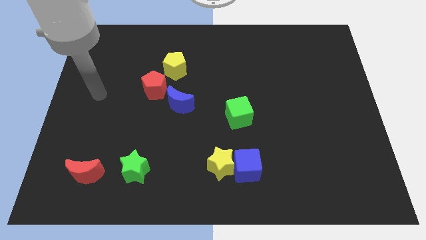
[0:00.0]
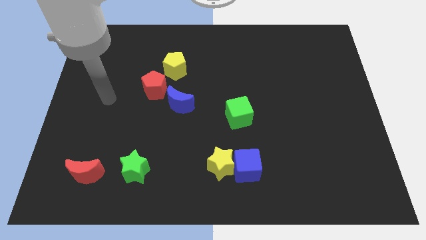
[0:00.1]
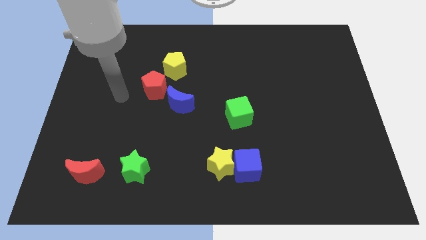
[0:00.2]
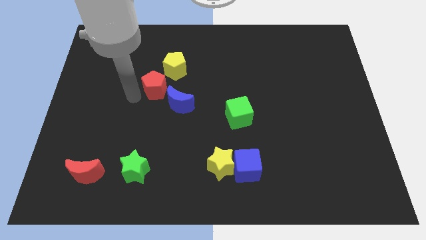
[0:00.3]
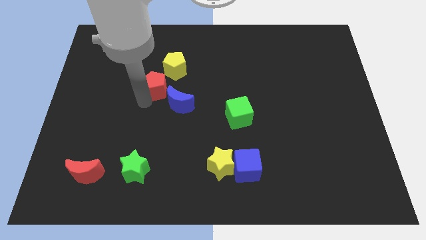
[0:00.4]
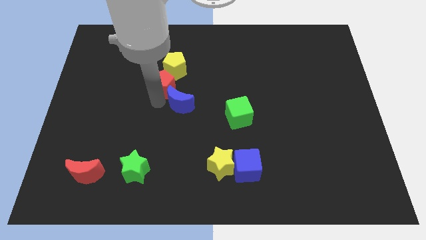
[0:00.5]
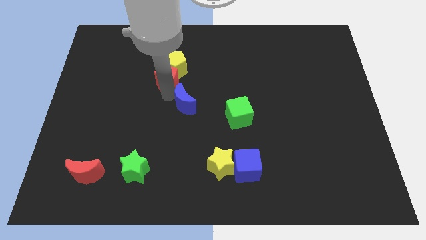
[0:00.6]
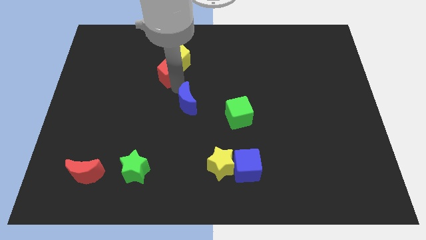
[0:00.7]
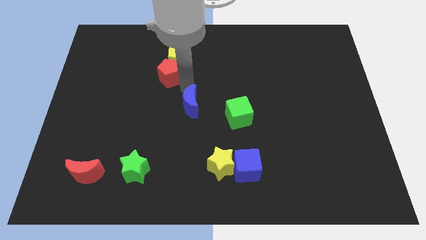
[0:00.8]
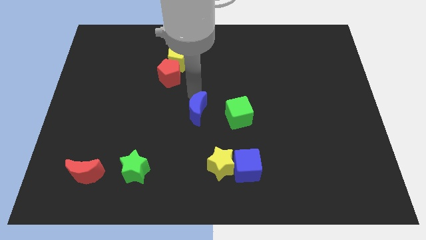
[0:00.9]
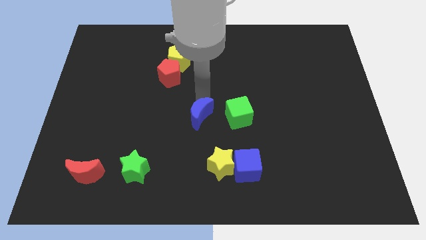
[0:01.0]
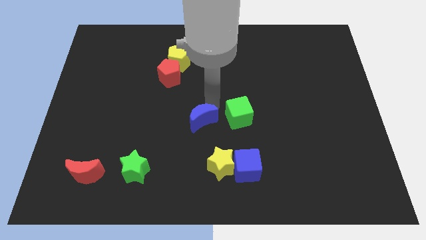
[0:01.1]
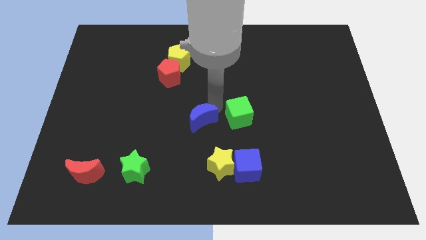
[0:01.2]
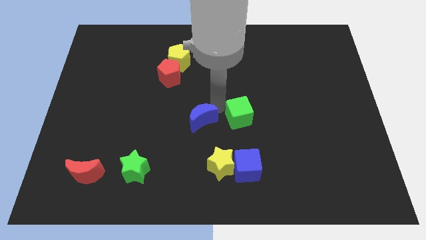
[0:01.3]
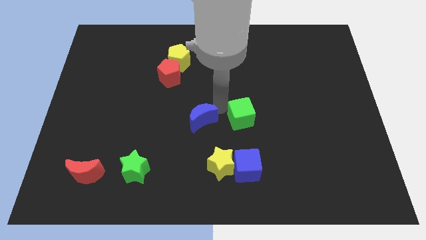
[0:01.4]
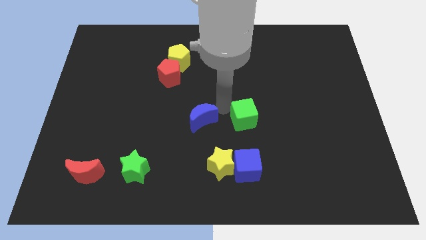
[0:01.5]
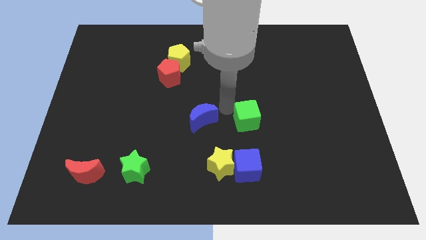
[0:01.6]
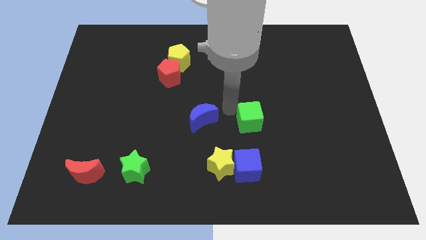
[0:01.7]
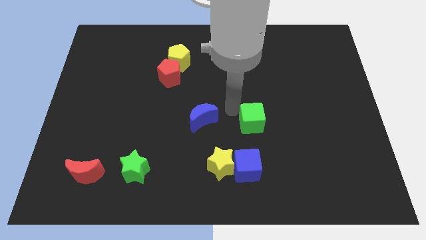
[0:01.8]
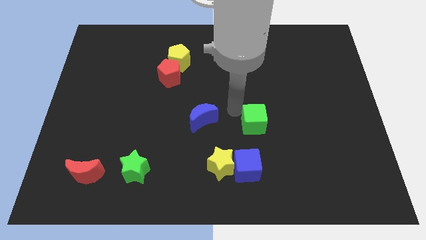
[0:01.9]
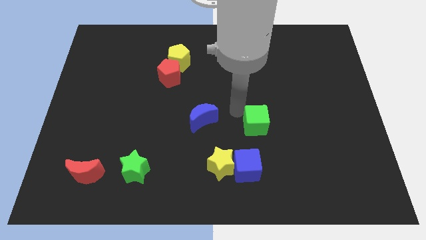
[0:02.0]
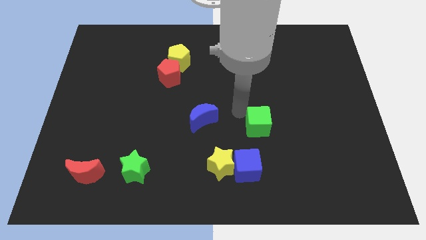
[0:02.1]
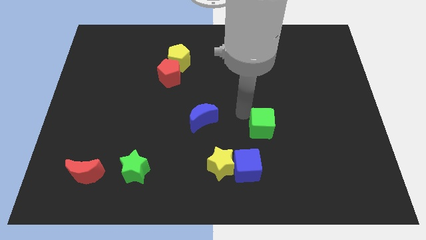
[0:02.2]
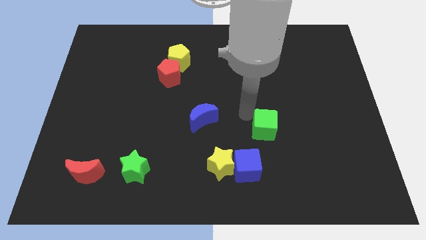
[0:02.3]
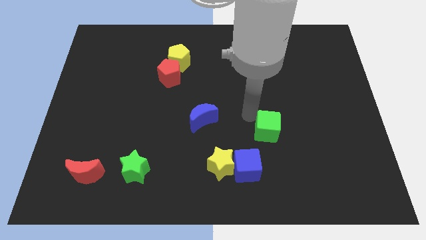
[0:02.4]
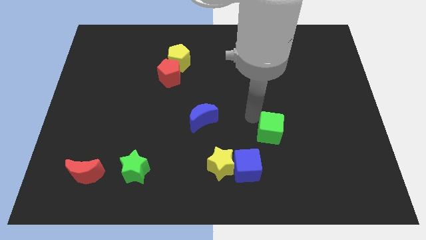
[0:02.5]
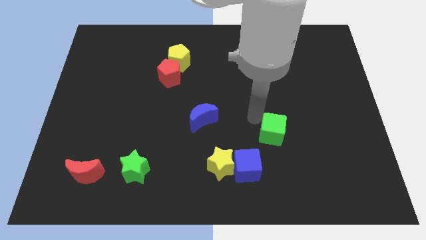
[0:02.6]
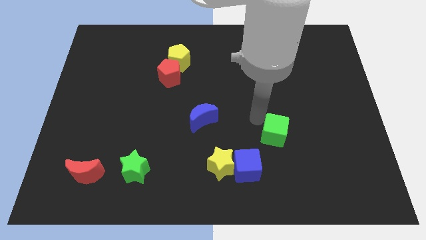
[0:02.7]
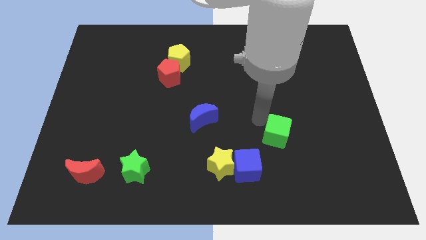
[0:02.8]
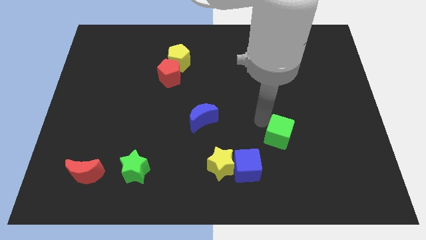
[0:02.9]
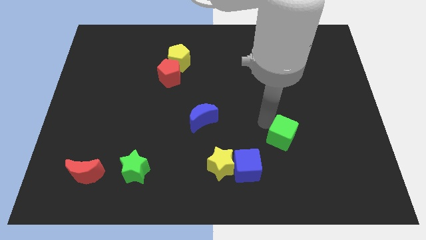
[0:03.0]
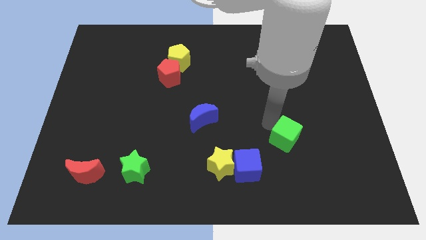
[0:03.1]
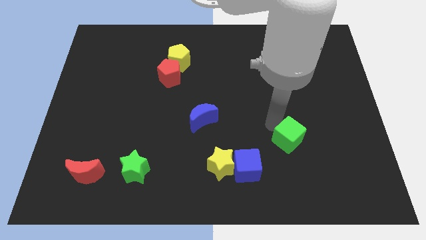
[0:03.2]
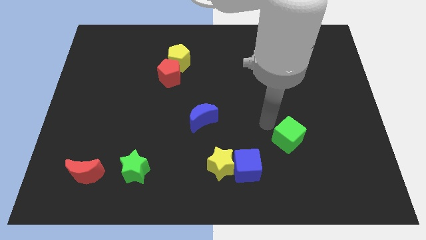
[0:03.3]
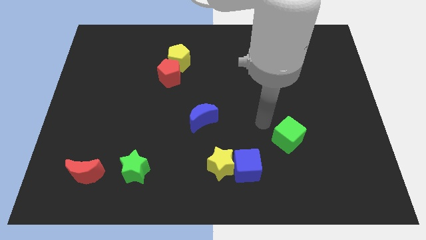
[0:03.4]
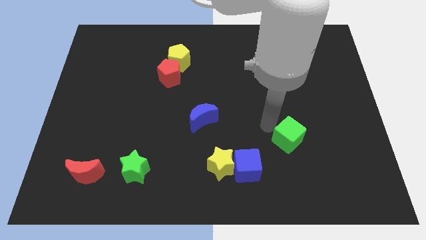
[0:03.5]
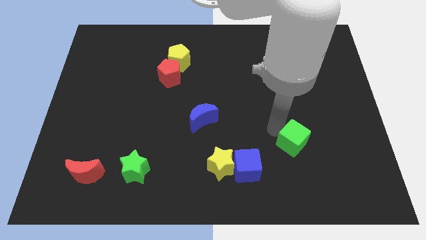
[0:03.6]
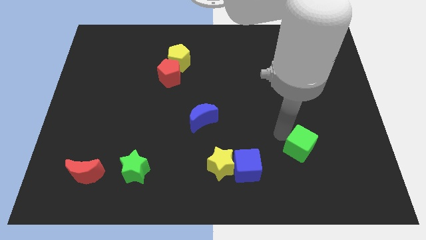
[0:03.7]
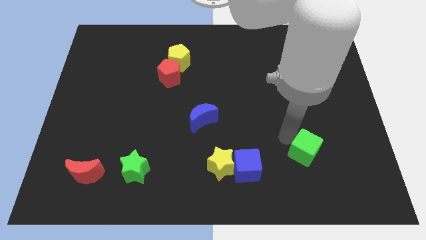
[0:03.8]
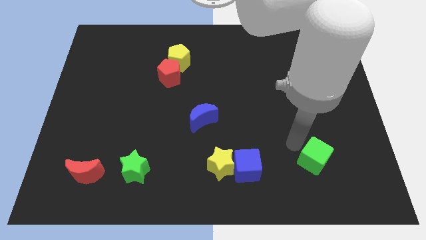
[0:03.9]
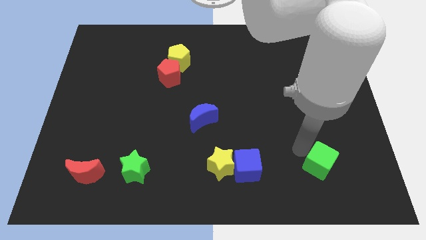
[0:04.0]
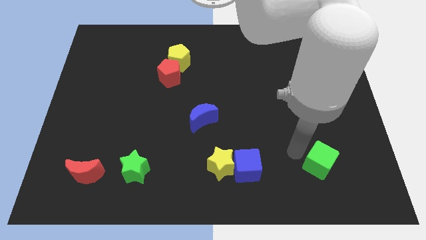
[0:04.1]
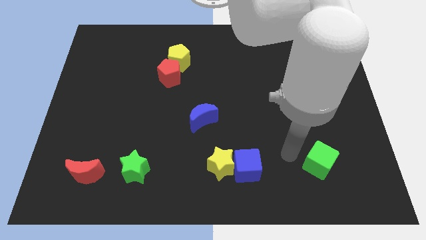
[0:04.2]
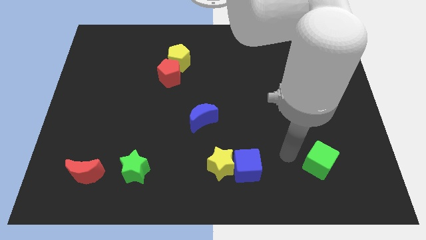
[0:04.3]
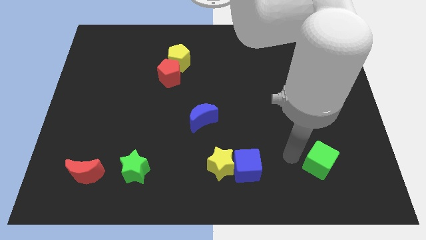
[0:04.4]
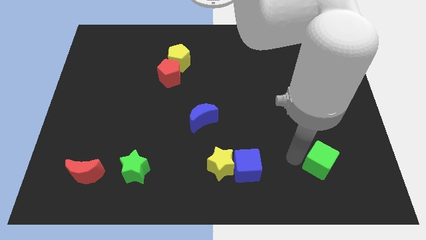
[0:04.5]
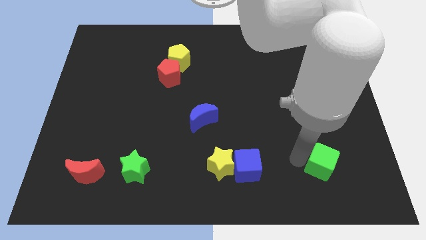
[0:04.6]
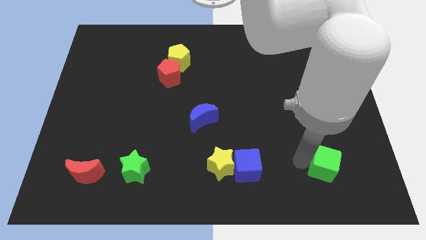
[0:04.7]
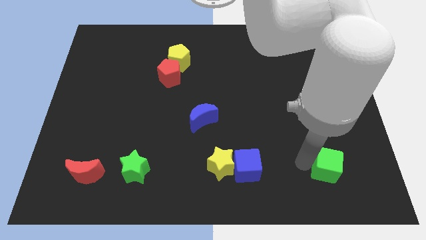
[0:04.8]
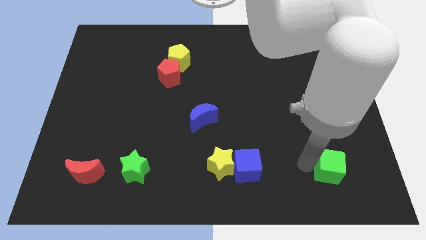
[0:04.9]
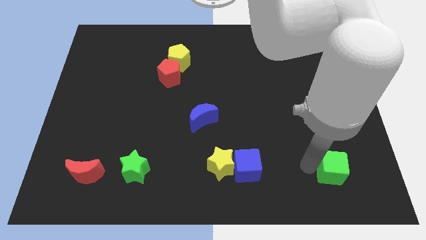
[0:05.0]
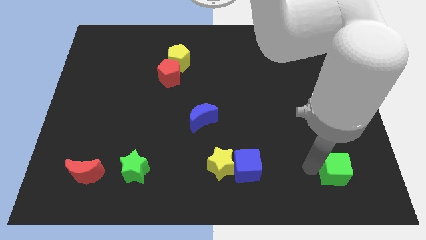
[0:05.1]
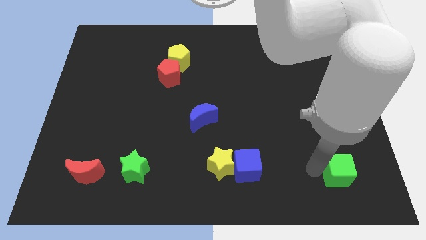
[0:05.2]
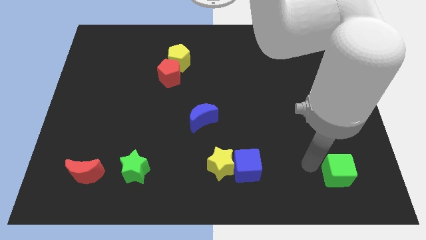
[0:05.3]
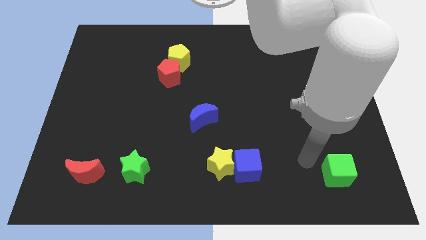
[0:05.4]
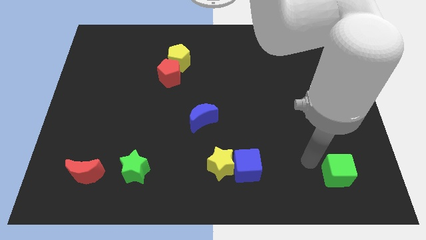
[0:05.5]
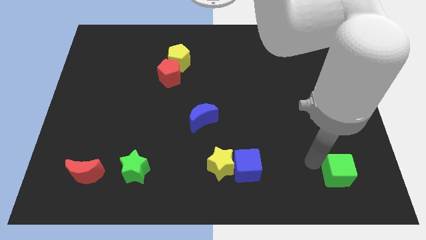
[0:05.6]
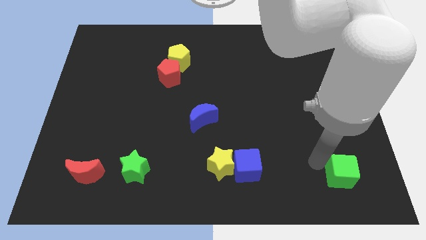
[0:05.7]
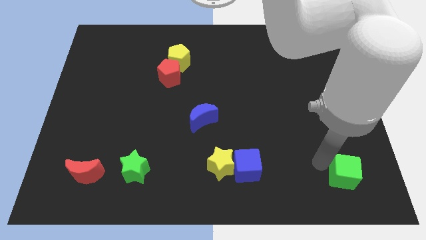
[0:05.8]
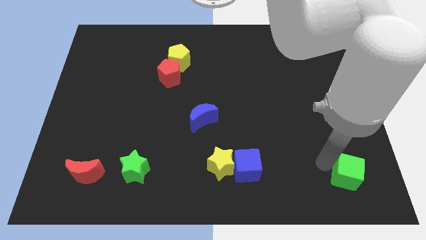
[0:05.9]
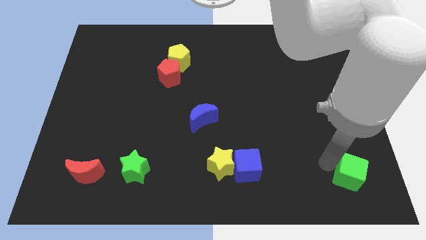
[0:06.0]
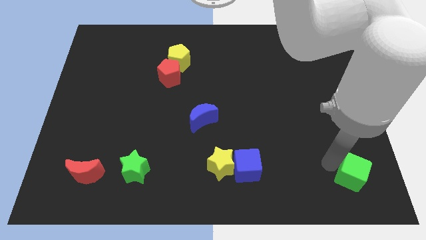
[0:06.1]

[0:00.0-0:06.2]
put the green cube to the lower right corner
